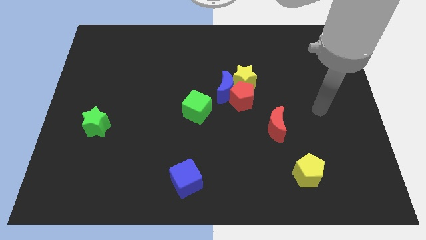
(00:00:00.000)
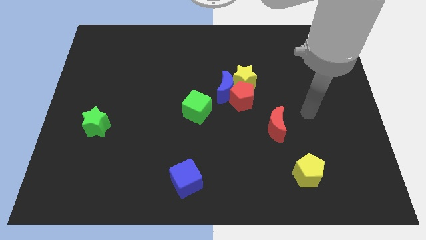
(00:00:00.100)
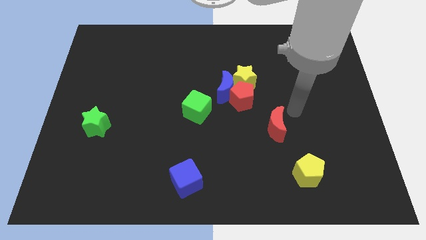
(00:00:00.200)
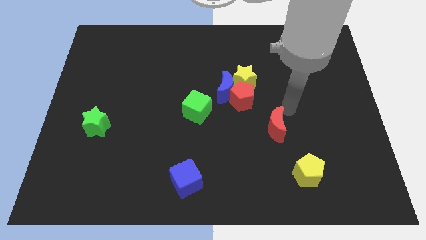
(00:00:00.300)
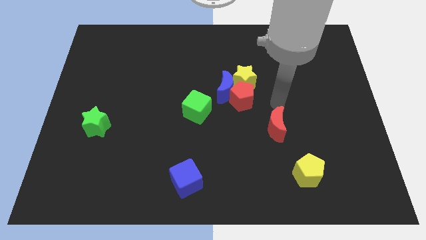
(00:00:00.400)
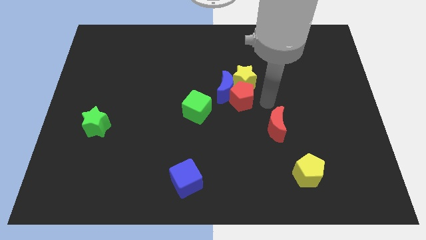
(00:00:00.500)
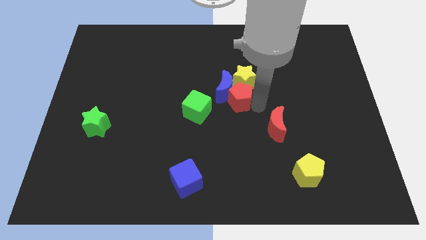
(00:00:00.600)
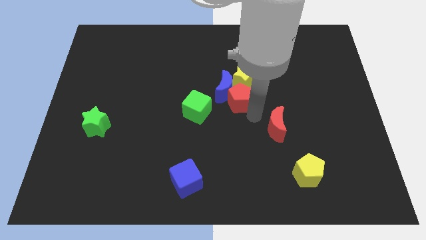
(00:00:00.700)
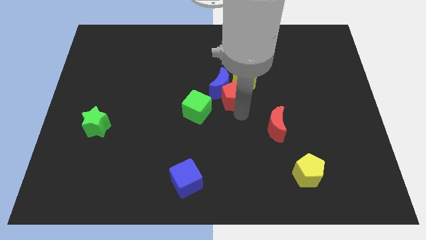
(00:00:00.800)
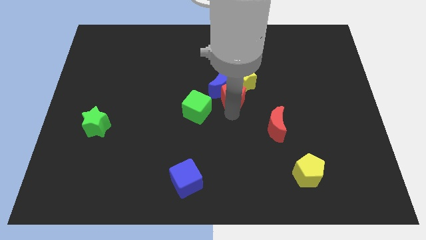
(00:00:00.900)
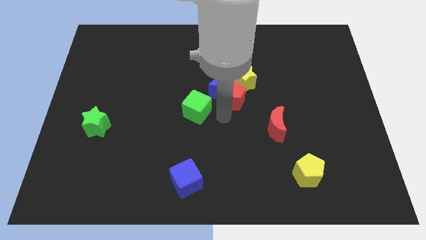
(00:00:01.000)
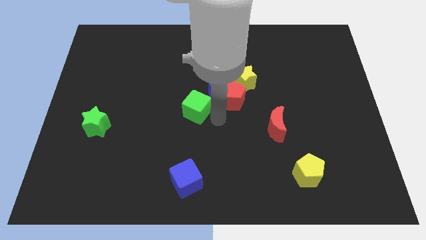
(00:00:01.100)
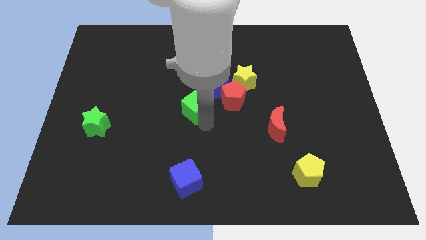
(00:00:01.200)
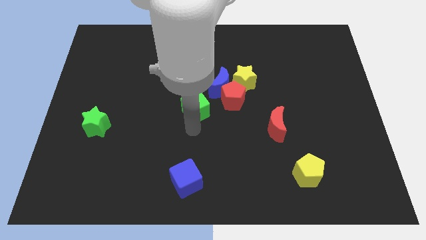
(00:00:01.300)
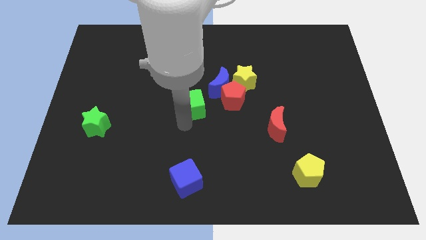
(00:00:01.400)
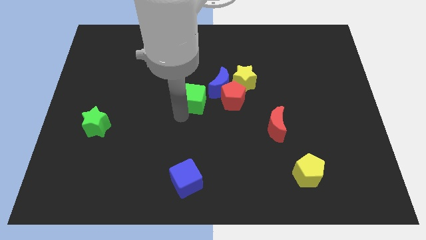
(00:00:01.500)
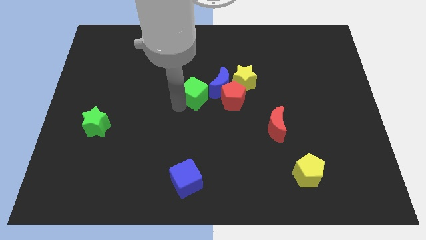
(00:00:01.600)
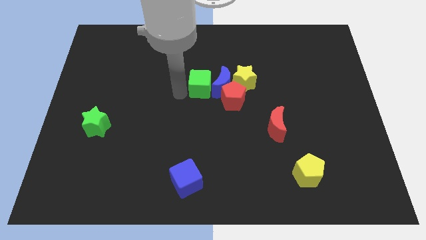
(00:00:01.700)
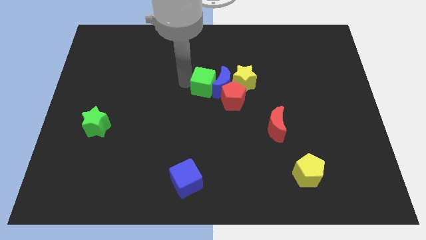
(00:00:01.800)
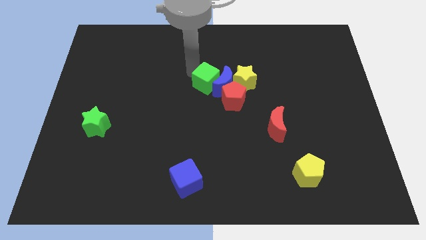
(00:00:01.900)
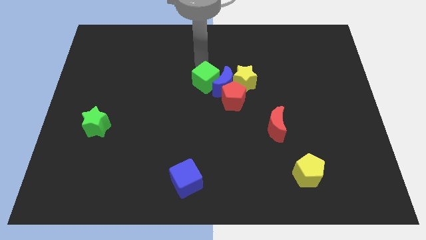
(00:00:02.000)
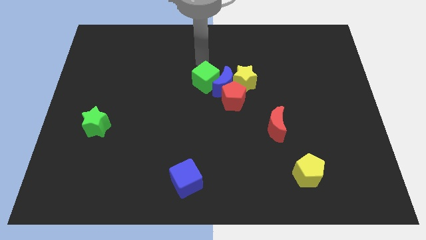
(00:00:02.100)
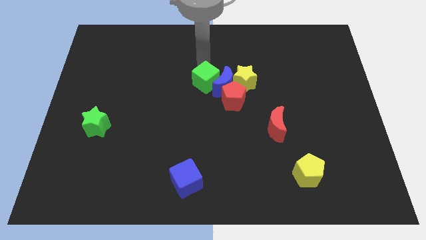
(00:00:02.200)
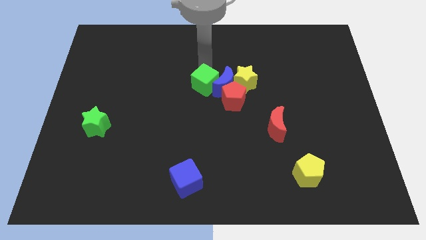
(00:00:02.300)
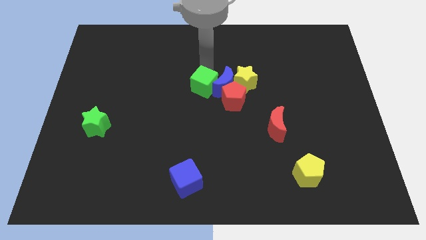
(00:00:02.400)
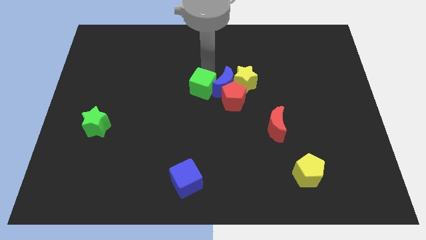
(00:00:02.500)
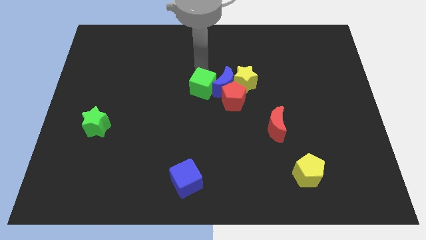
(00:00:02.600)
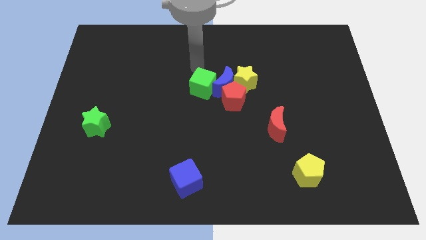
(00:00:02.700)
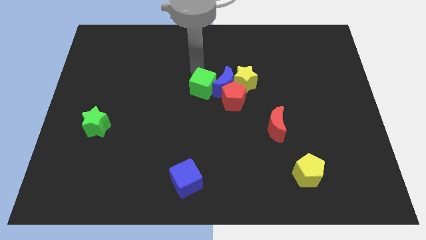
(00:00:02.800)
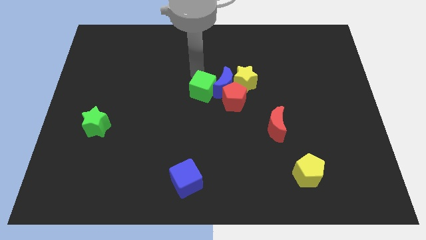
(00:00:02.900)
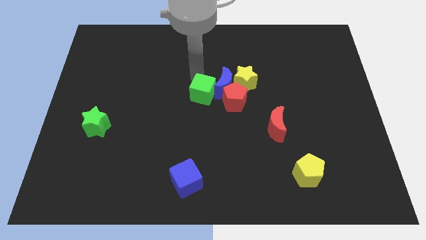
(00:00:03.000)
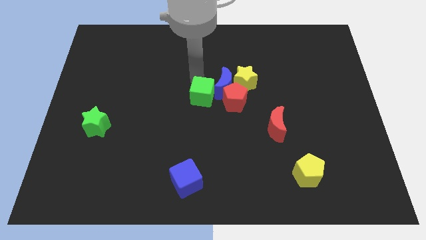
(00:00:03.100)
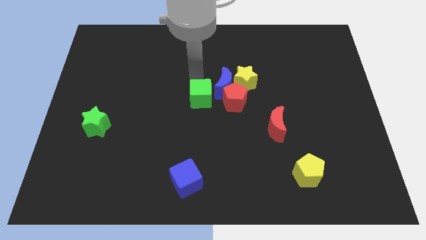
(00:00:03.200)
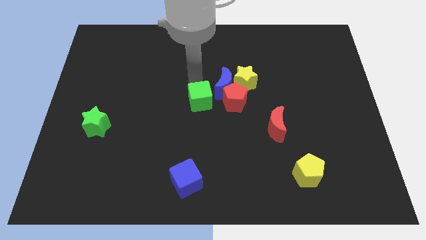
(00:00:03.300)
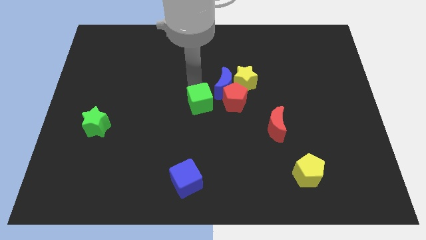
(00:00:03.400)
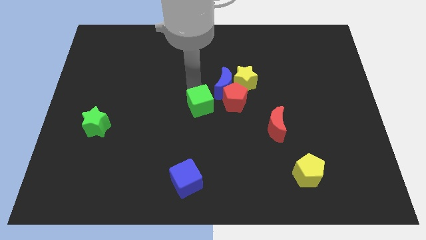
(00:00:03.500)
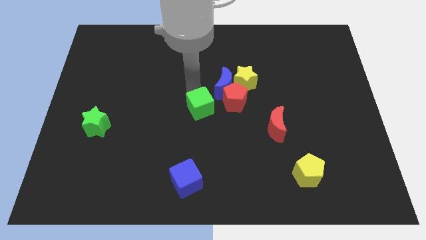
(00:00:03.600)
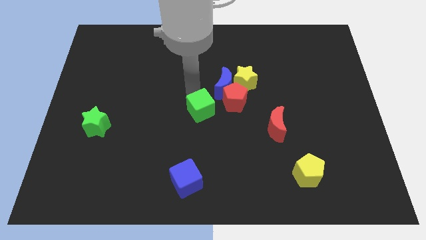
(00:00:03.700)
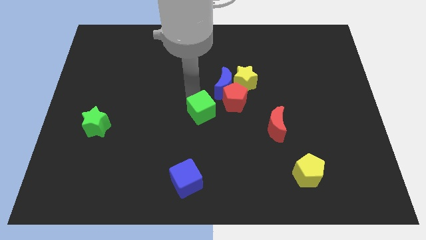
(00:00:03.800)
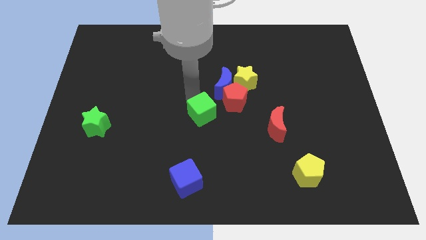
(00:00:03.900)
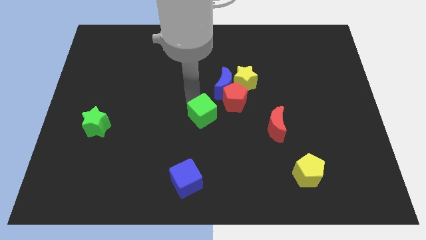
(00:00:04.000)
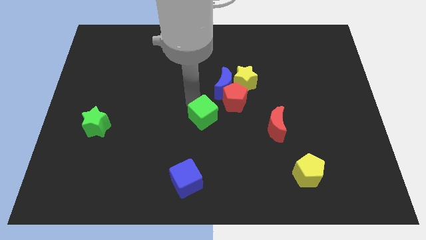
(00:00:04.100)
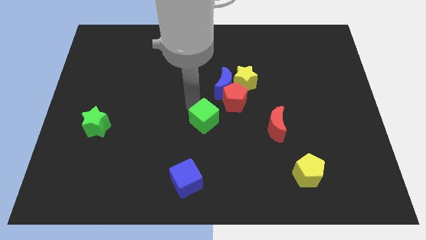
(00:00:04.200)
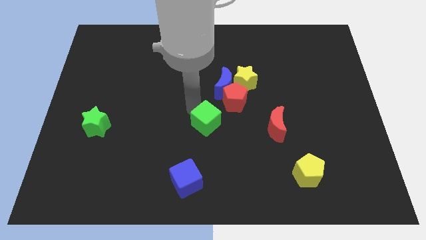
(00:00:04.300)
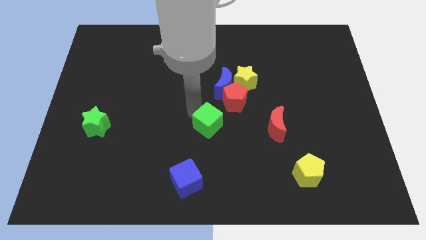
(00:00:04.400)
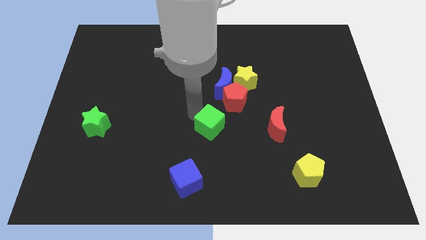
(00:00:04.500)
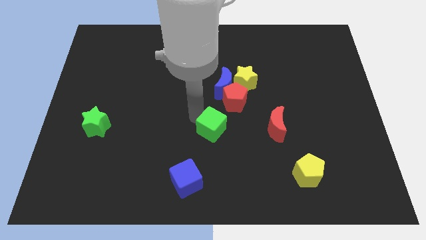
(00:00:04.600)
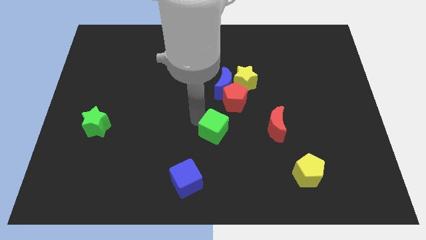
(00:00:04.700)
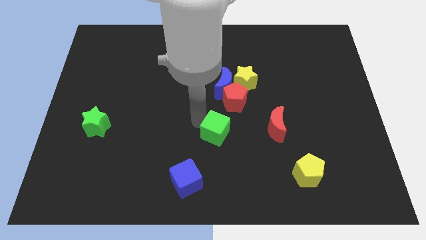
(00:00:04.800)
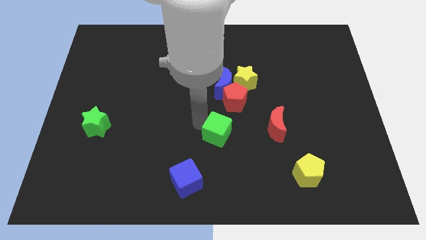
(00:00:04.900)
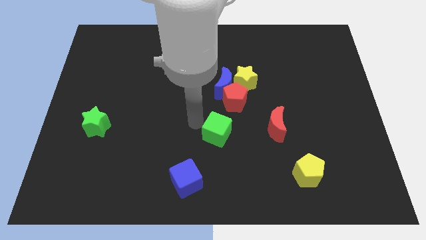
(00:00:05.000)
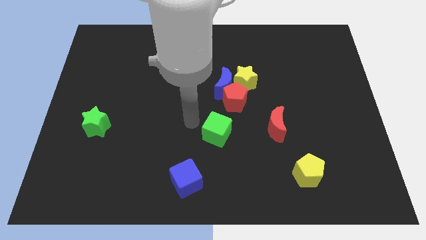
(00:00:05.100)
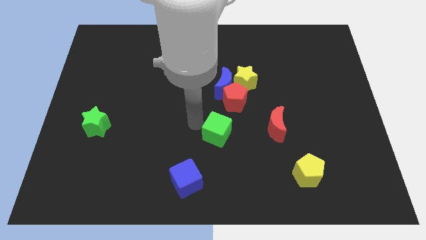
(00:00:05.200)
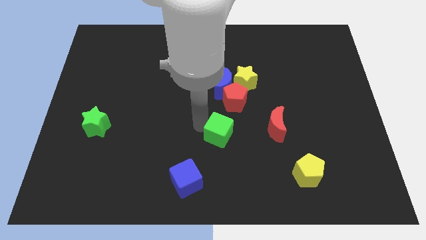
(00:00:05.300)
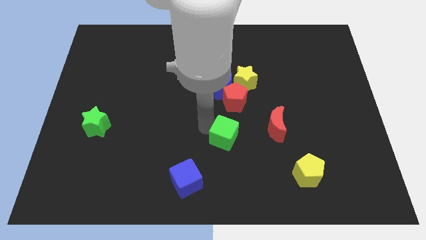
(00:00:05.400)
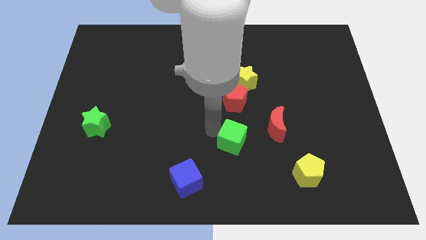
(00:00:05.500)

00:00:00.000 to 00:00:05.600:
put the green cube to the bottom left of the red moon

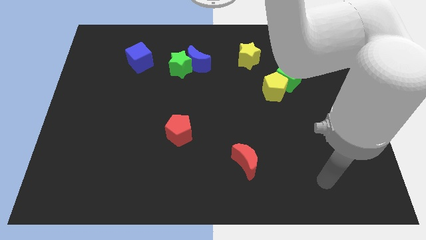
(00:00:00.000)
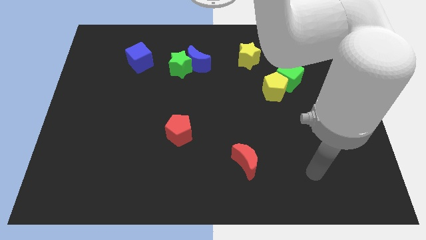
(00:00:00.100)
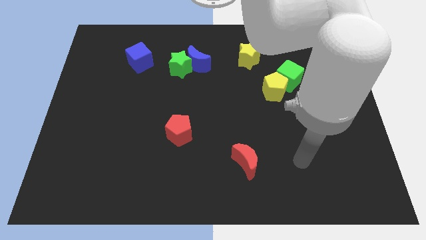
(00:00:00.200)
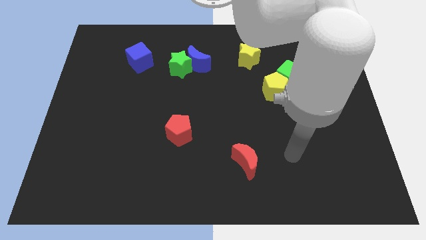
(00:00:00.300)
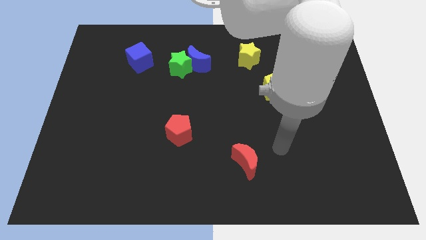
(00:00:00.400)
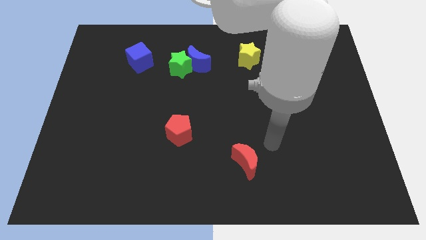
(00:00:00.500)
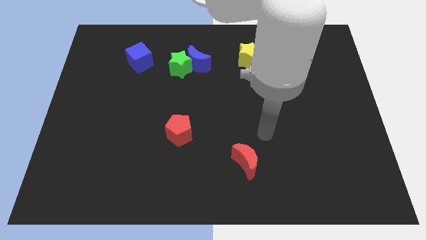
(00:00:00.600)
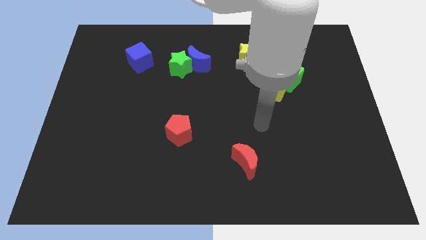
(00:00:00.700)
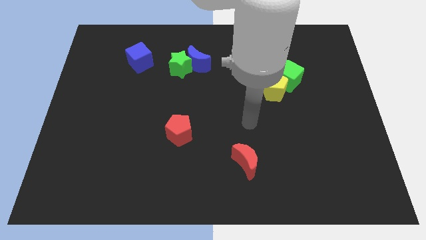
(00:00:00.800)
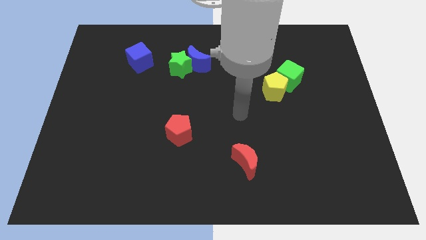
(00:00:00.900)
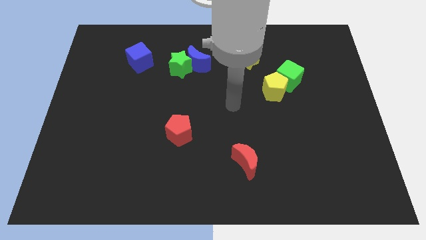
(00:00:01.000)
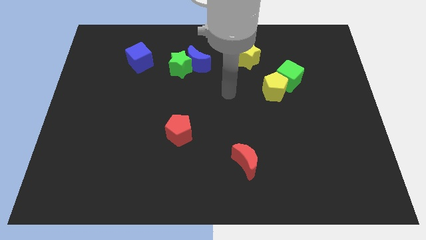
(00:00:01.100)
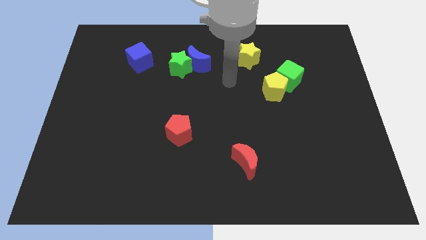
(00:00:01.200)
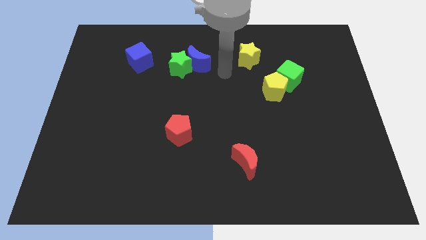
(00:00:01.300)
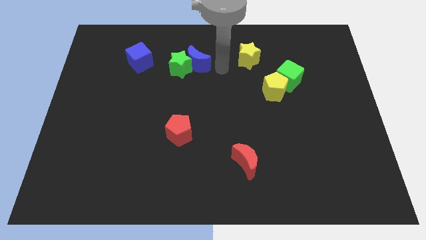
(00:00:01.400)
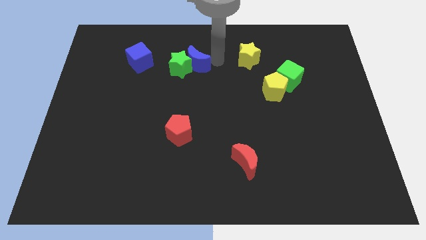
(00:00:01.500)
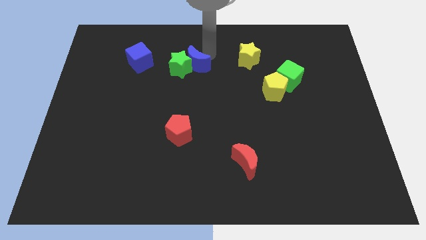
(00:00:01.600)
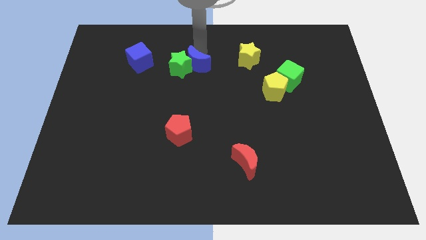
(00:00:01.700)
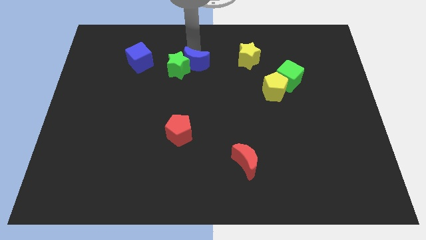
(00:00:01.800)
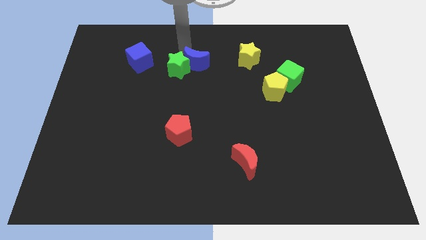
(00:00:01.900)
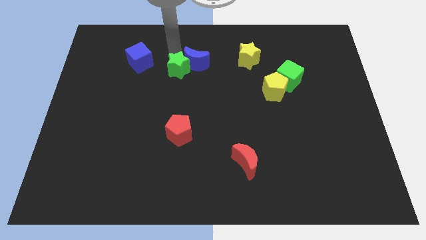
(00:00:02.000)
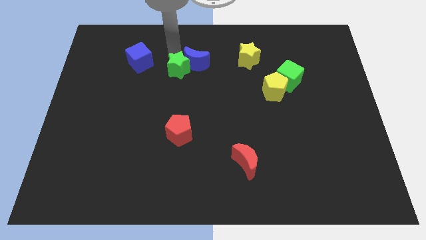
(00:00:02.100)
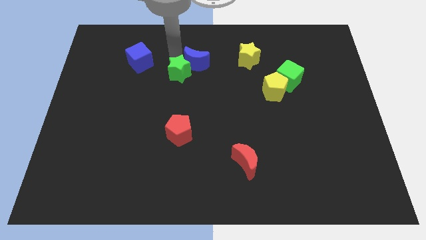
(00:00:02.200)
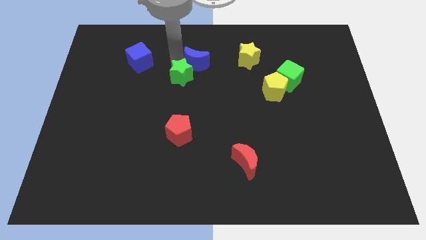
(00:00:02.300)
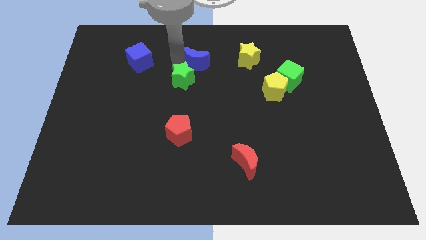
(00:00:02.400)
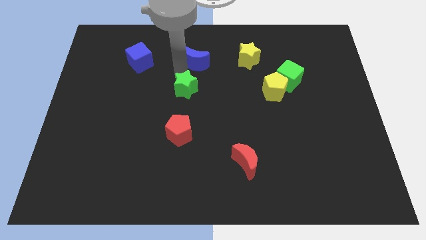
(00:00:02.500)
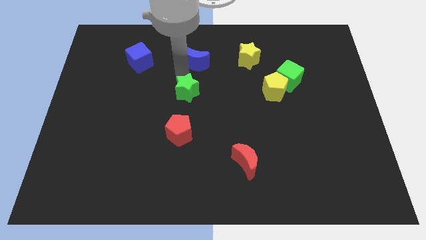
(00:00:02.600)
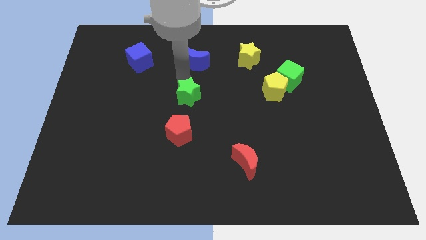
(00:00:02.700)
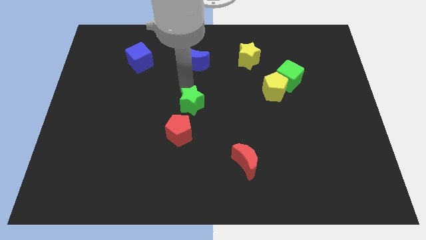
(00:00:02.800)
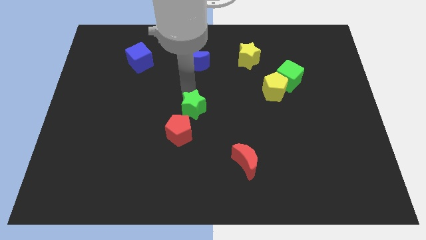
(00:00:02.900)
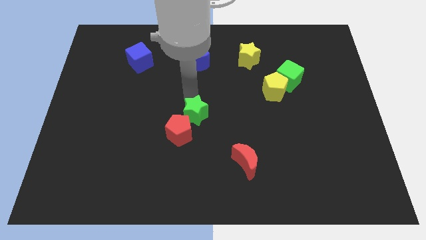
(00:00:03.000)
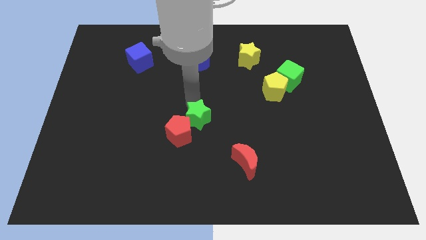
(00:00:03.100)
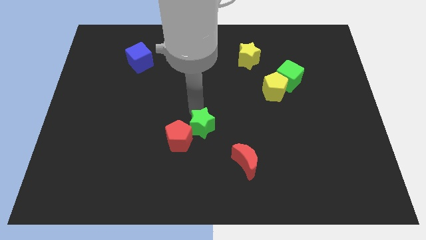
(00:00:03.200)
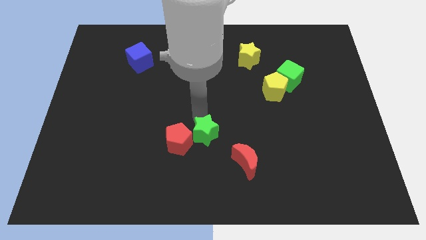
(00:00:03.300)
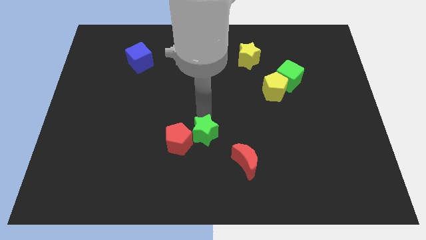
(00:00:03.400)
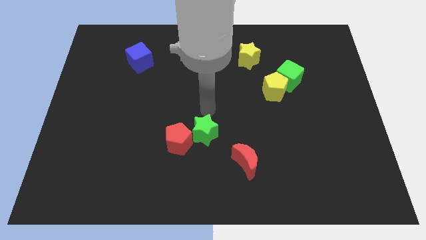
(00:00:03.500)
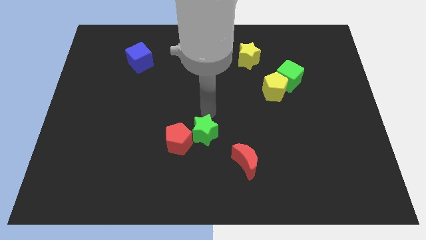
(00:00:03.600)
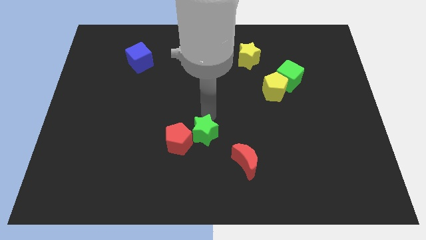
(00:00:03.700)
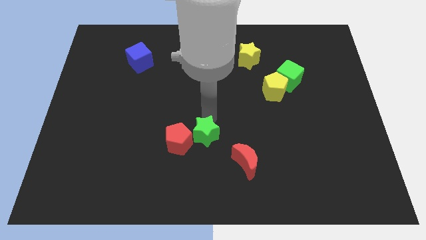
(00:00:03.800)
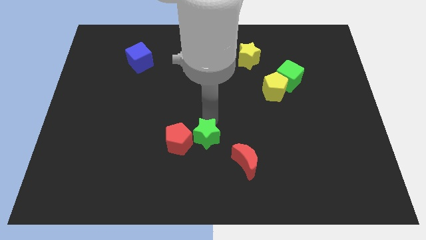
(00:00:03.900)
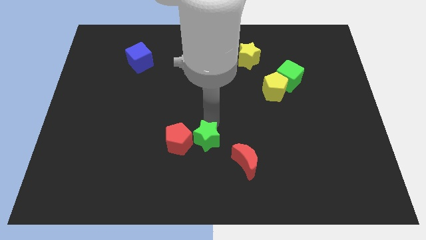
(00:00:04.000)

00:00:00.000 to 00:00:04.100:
slide the green star diagonally down and to the right of the red pentagon
